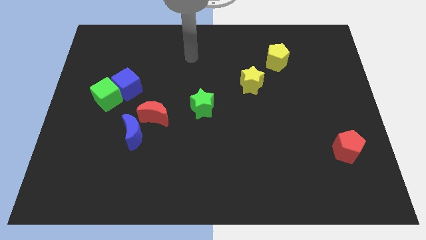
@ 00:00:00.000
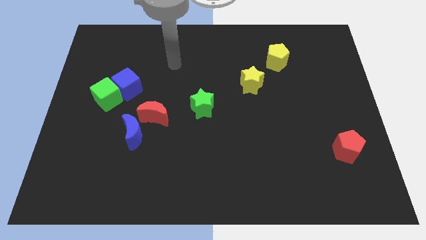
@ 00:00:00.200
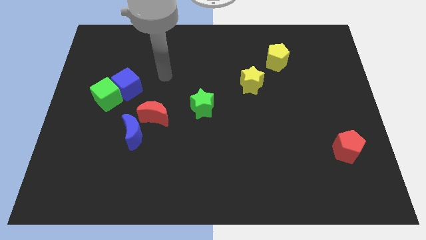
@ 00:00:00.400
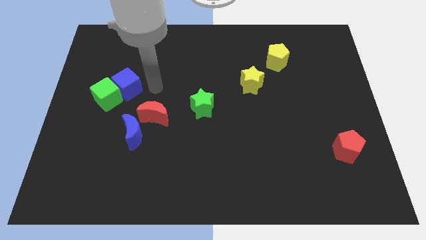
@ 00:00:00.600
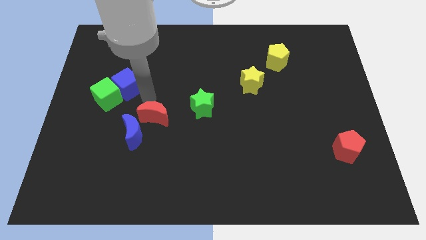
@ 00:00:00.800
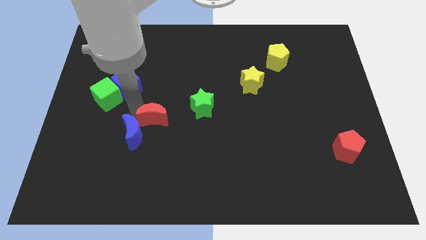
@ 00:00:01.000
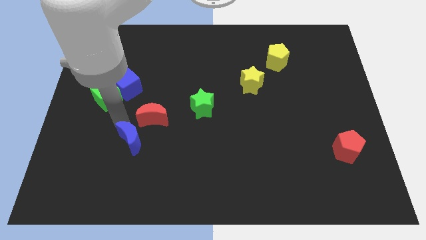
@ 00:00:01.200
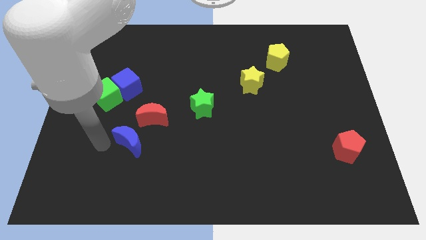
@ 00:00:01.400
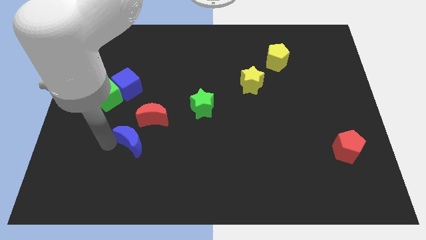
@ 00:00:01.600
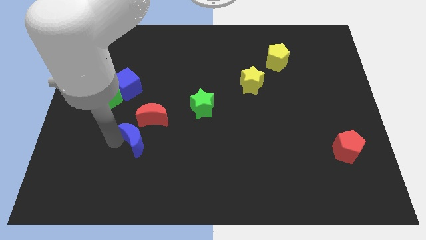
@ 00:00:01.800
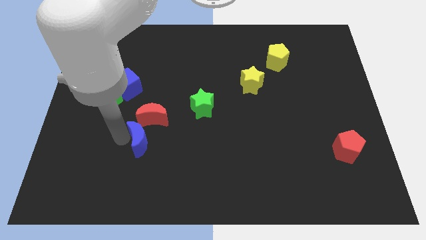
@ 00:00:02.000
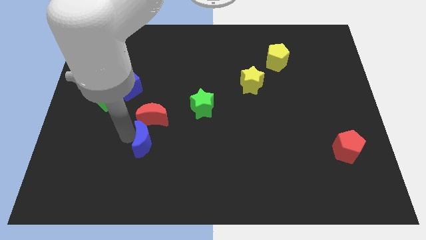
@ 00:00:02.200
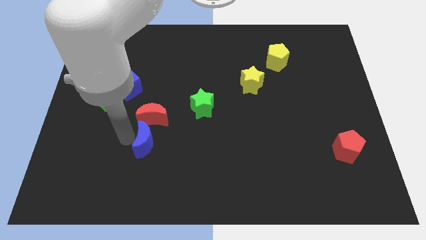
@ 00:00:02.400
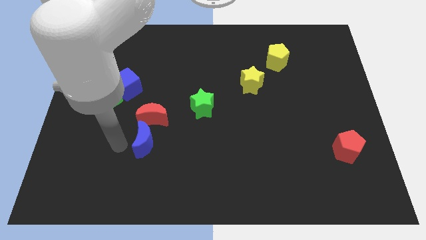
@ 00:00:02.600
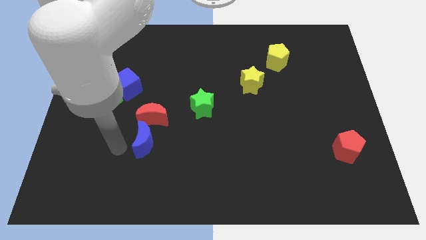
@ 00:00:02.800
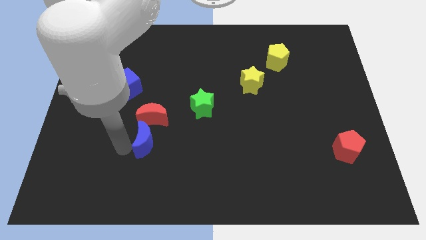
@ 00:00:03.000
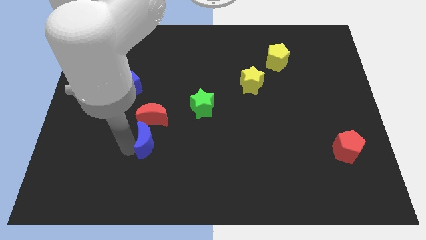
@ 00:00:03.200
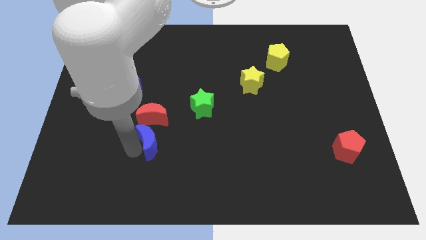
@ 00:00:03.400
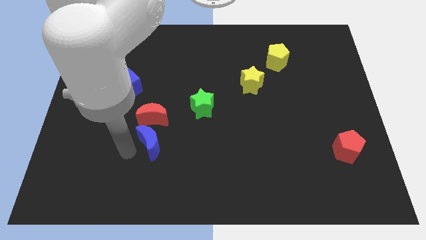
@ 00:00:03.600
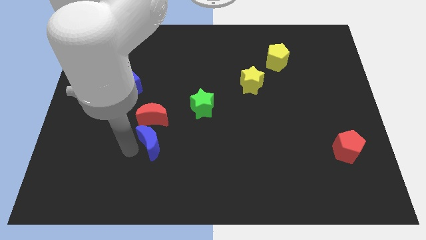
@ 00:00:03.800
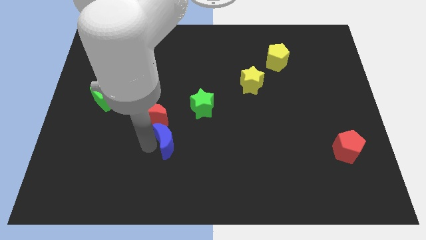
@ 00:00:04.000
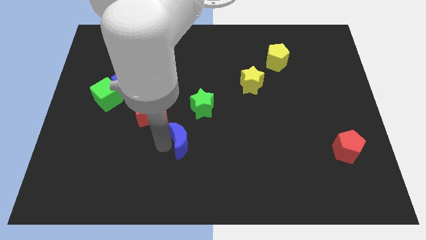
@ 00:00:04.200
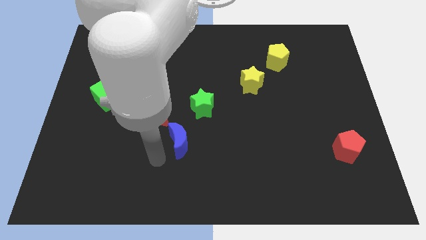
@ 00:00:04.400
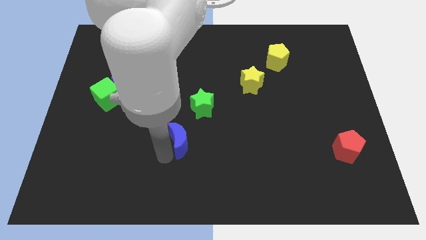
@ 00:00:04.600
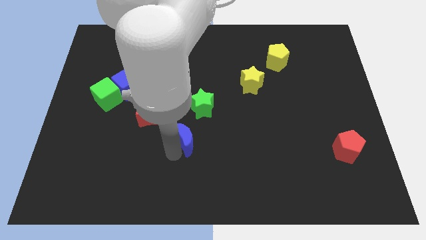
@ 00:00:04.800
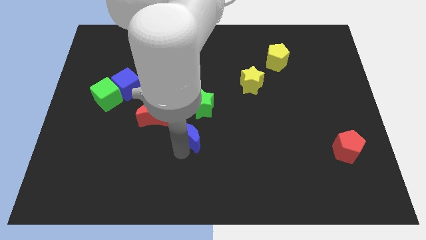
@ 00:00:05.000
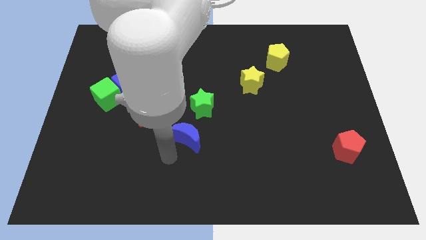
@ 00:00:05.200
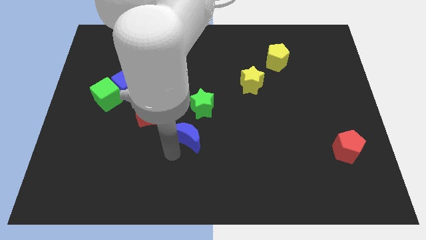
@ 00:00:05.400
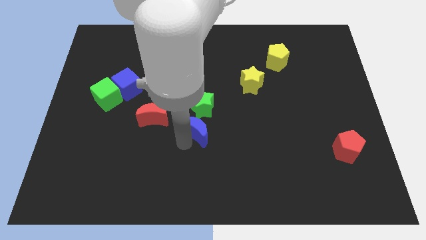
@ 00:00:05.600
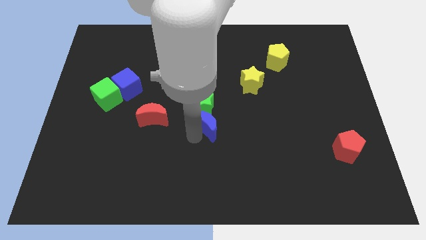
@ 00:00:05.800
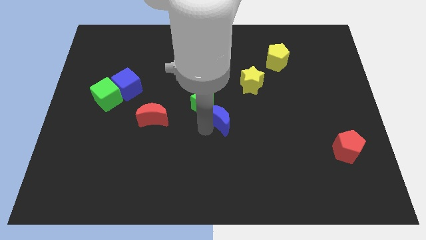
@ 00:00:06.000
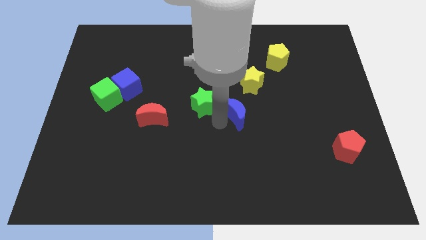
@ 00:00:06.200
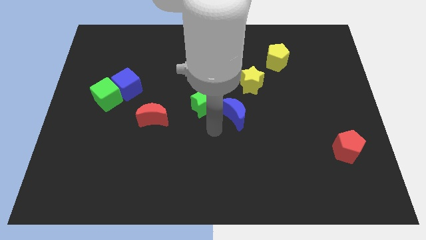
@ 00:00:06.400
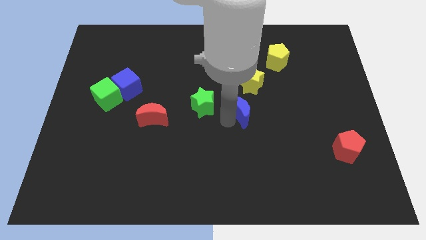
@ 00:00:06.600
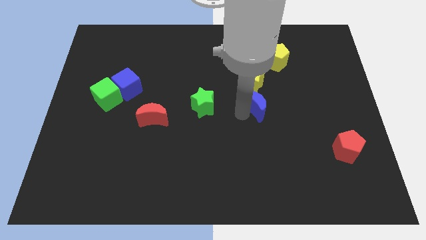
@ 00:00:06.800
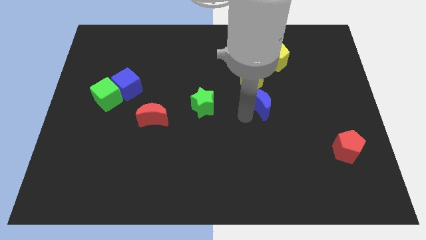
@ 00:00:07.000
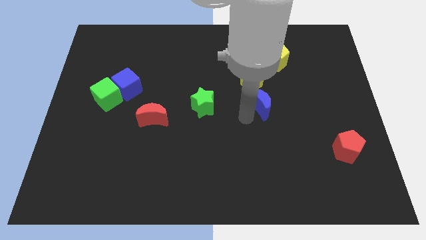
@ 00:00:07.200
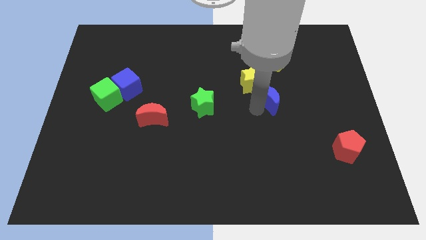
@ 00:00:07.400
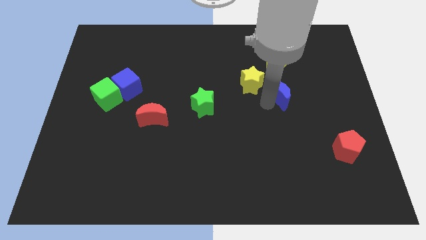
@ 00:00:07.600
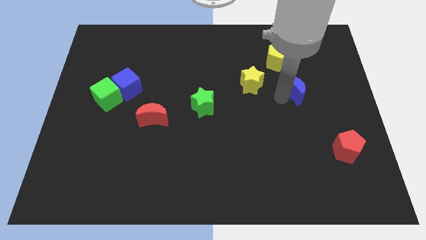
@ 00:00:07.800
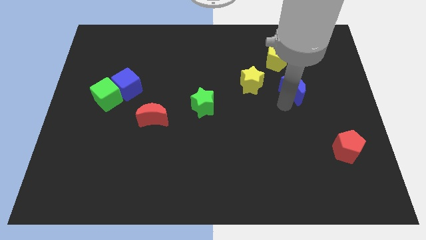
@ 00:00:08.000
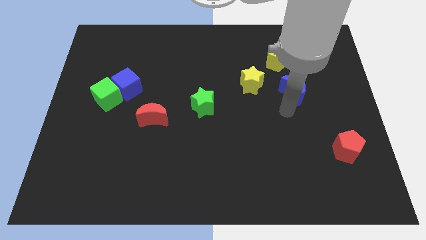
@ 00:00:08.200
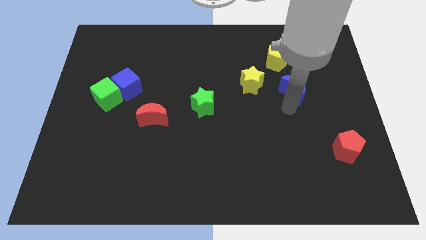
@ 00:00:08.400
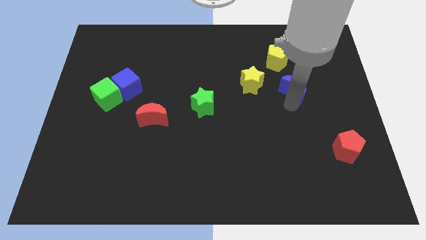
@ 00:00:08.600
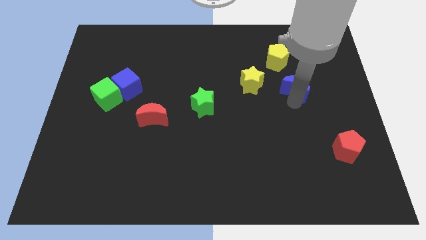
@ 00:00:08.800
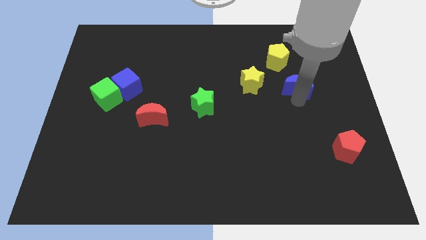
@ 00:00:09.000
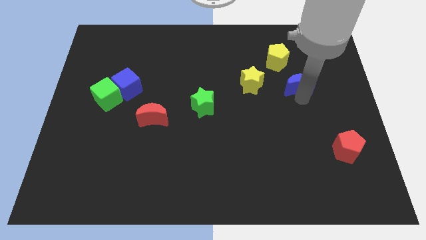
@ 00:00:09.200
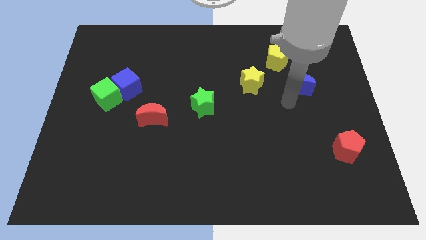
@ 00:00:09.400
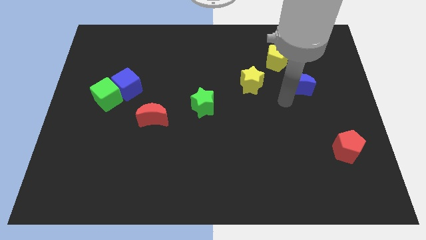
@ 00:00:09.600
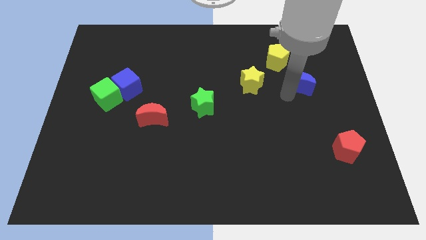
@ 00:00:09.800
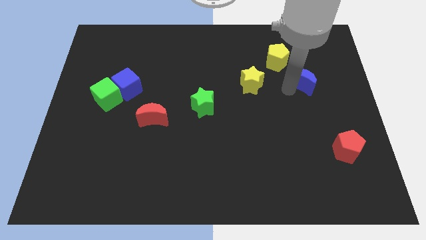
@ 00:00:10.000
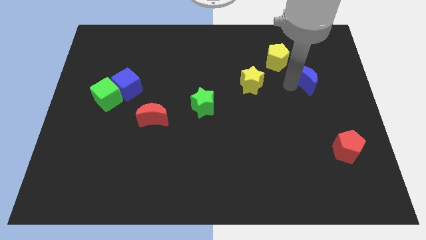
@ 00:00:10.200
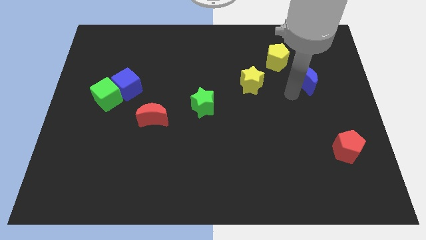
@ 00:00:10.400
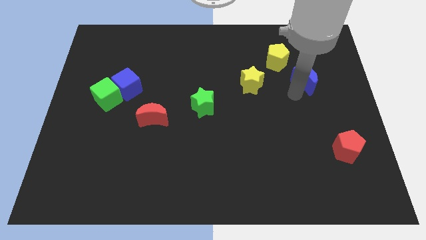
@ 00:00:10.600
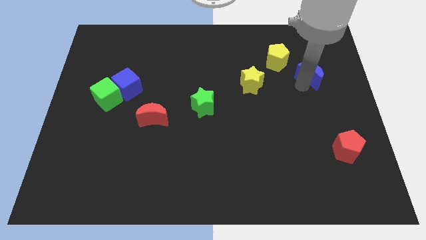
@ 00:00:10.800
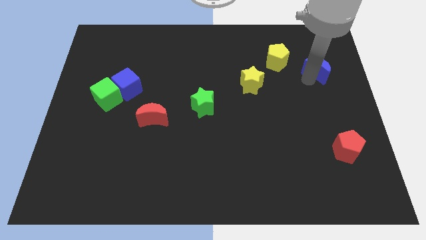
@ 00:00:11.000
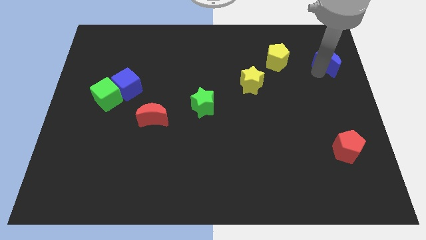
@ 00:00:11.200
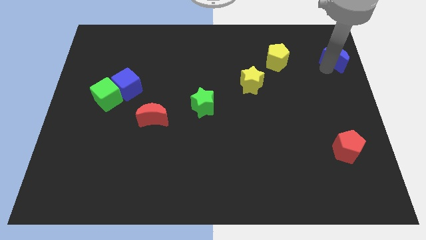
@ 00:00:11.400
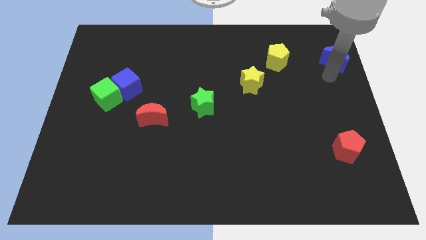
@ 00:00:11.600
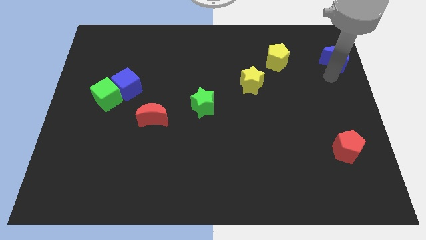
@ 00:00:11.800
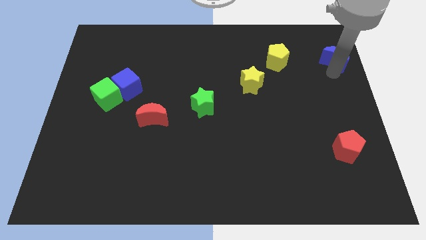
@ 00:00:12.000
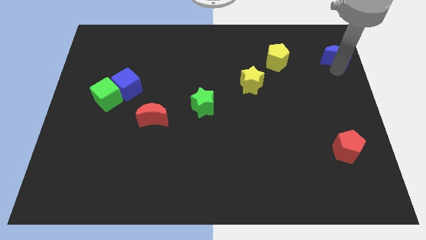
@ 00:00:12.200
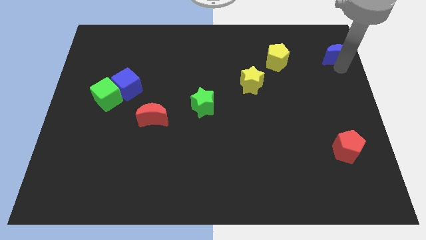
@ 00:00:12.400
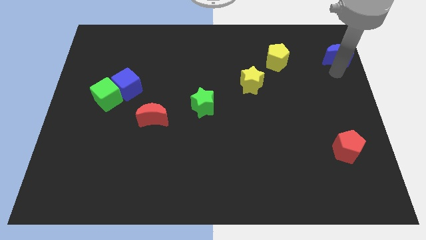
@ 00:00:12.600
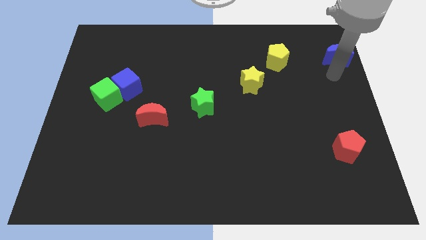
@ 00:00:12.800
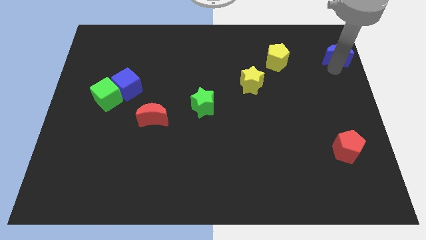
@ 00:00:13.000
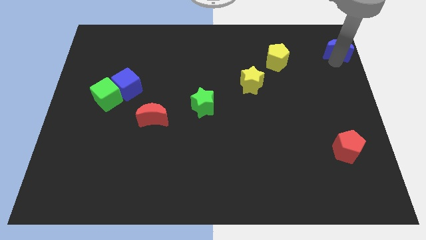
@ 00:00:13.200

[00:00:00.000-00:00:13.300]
slide the blue moon to the upper right corner
